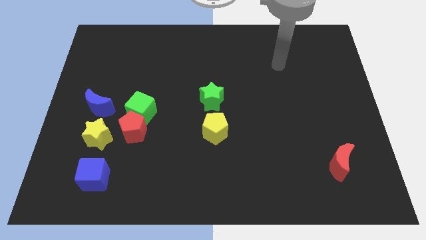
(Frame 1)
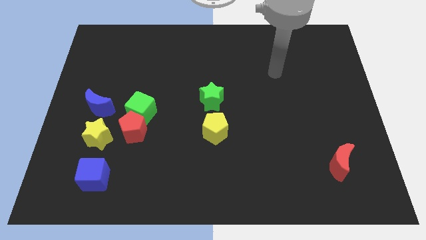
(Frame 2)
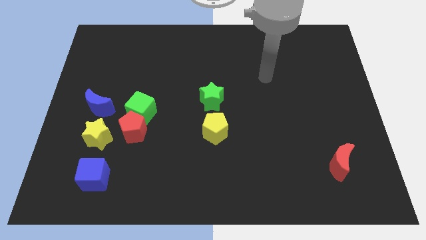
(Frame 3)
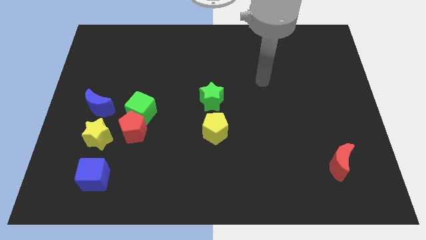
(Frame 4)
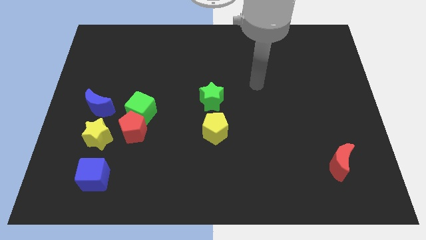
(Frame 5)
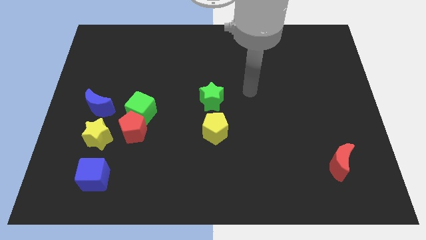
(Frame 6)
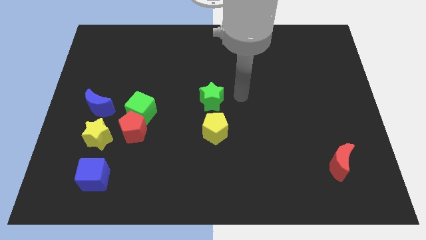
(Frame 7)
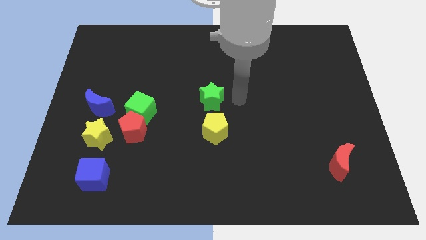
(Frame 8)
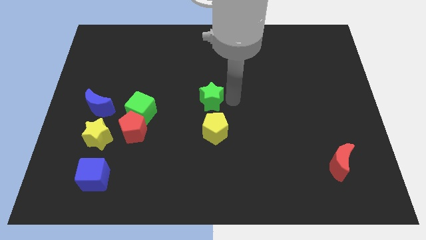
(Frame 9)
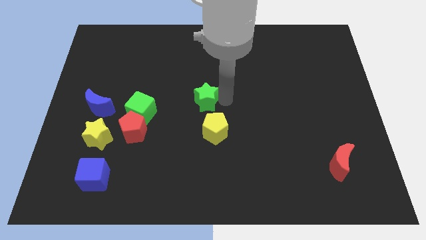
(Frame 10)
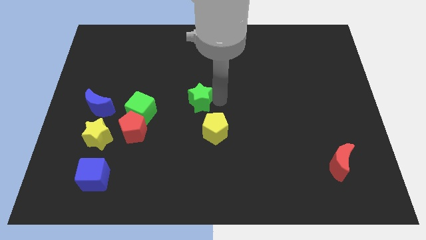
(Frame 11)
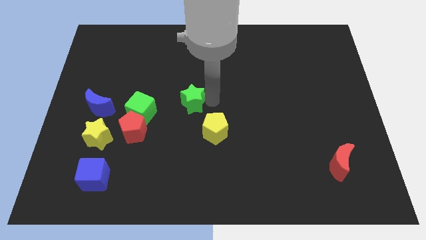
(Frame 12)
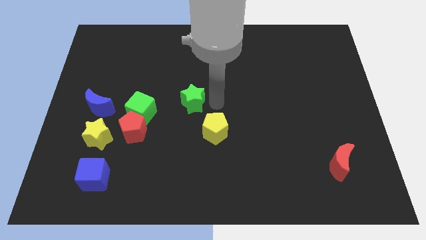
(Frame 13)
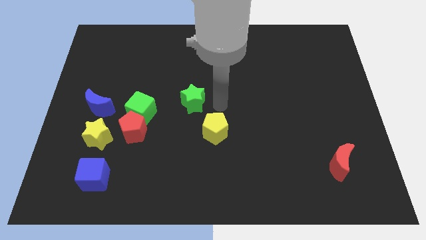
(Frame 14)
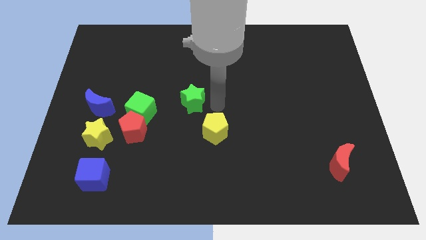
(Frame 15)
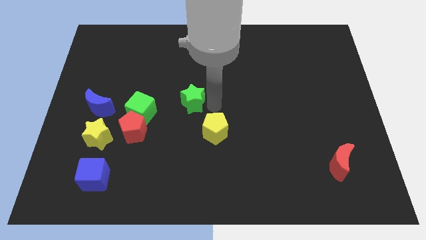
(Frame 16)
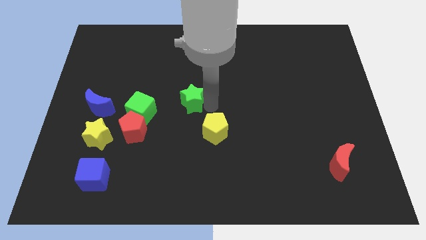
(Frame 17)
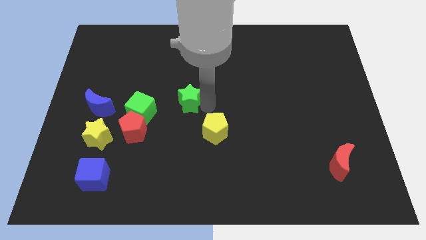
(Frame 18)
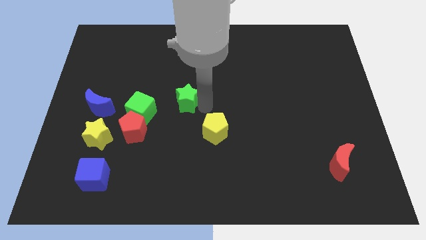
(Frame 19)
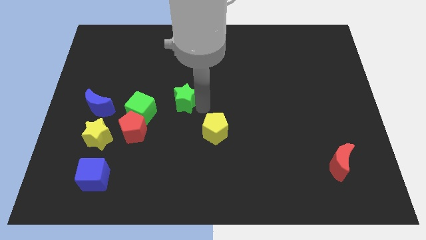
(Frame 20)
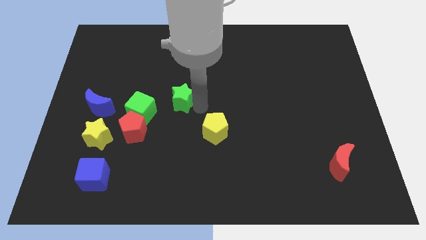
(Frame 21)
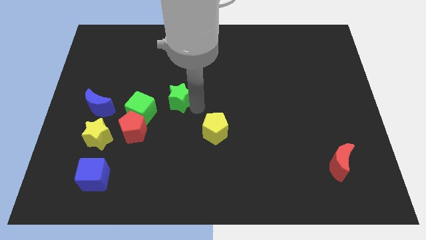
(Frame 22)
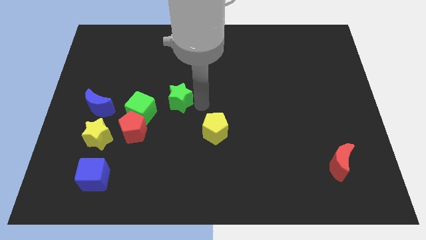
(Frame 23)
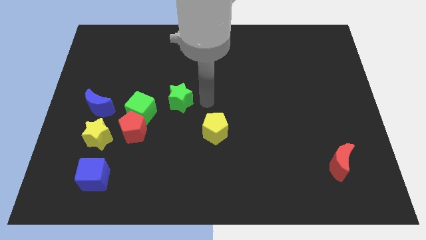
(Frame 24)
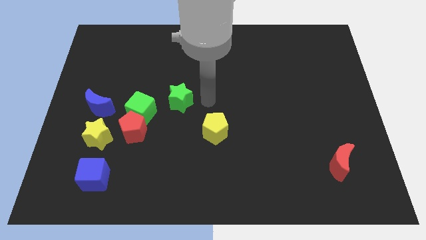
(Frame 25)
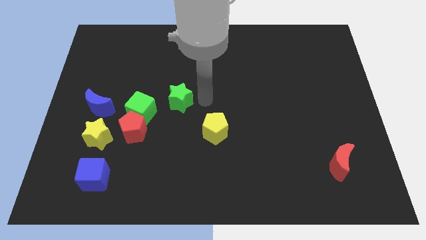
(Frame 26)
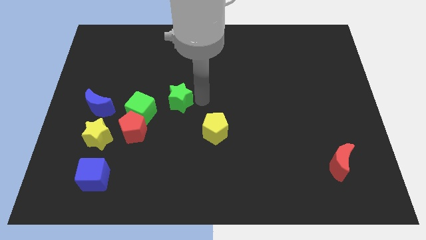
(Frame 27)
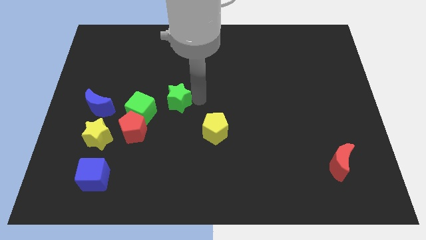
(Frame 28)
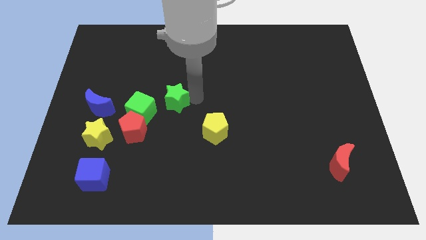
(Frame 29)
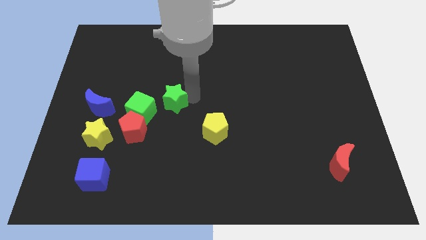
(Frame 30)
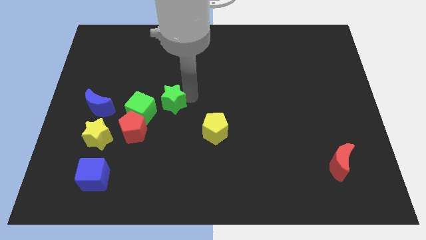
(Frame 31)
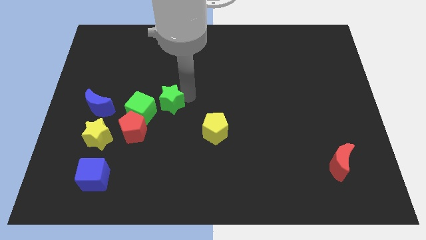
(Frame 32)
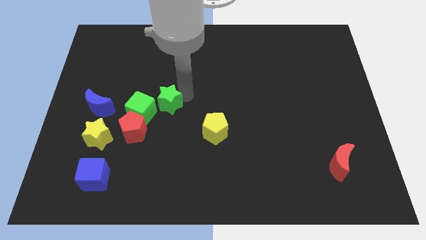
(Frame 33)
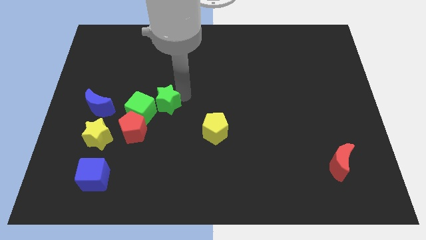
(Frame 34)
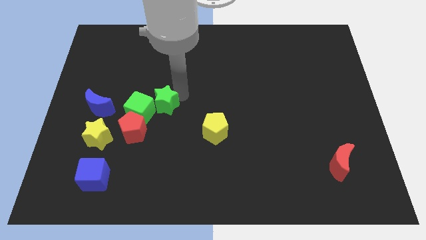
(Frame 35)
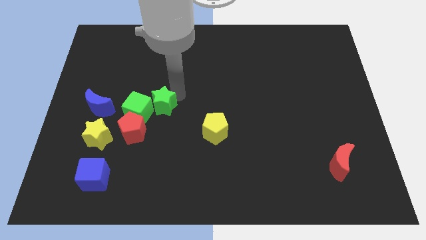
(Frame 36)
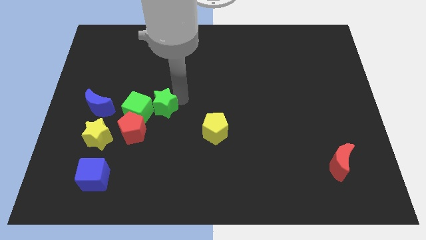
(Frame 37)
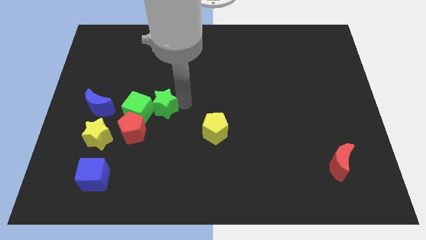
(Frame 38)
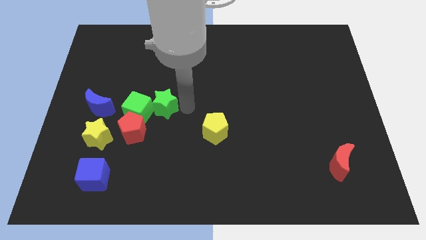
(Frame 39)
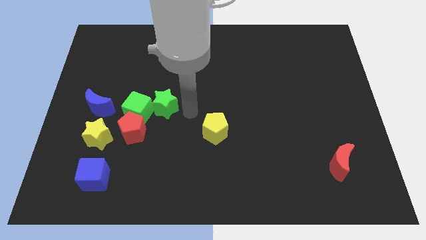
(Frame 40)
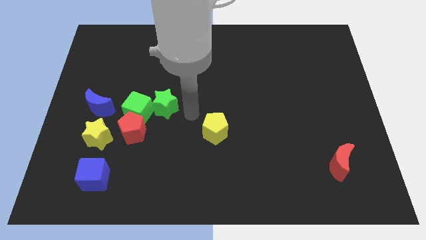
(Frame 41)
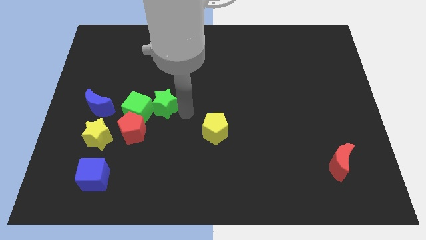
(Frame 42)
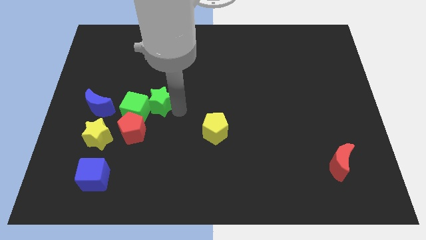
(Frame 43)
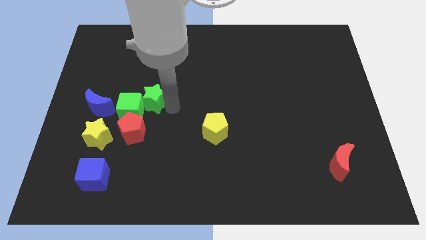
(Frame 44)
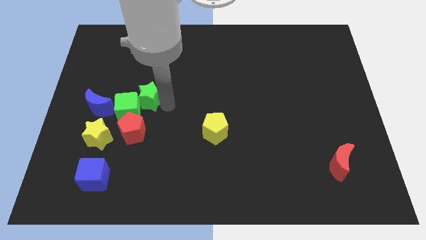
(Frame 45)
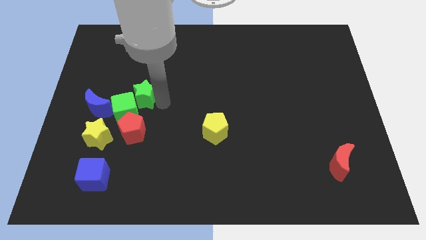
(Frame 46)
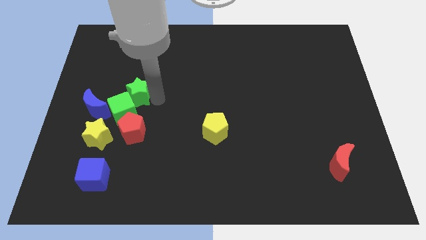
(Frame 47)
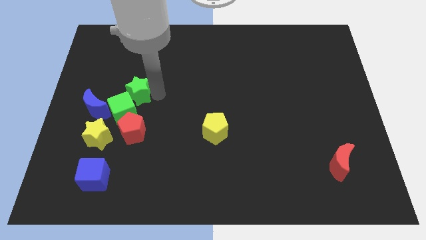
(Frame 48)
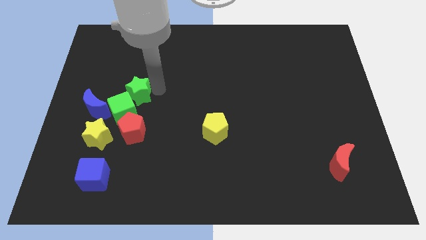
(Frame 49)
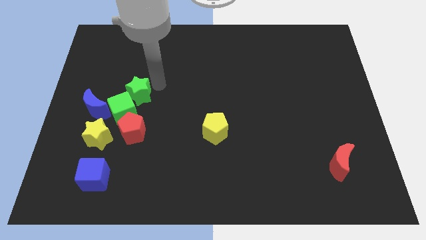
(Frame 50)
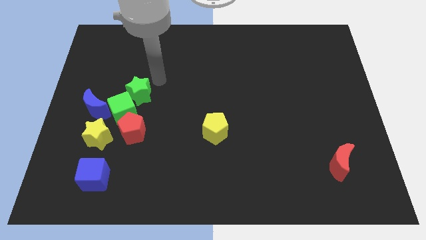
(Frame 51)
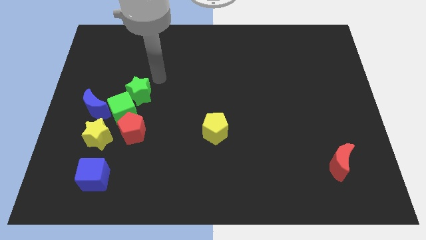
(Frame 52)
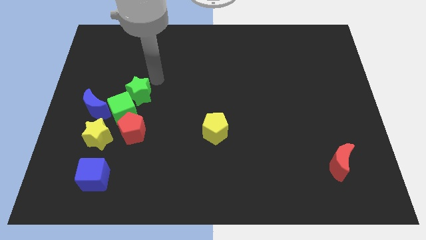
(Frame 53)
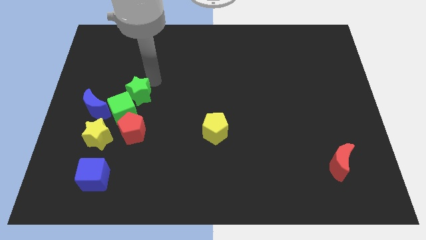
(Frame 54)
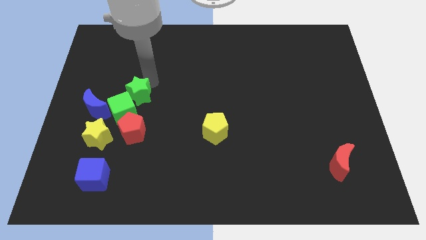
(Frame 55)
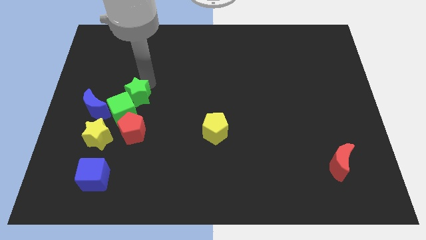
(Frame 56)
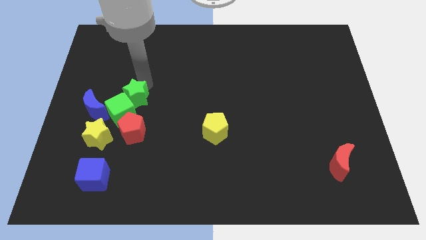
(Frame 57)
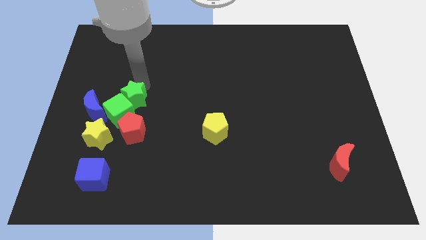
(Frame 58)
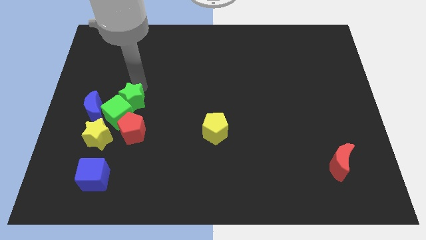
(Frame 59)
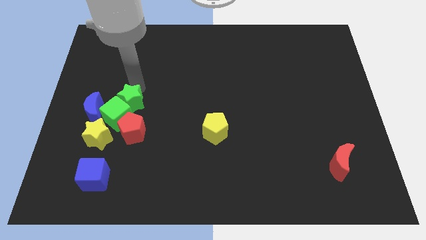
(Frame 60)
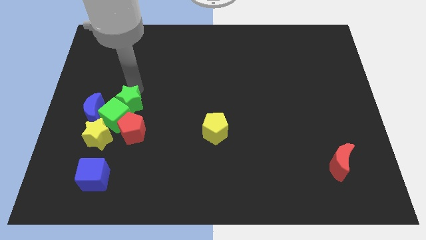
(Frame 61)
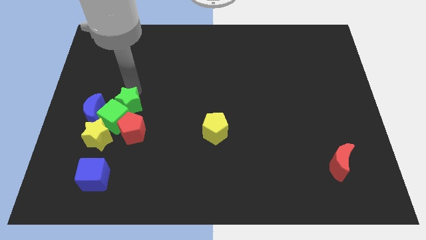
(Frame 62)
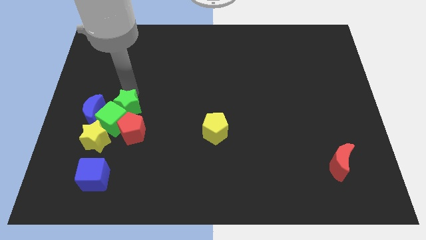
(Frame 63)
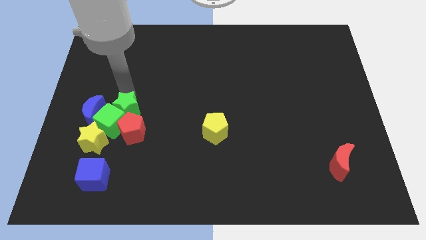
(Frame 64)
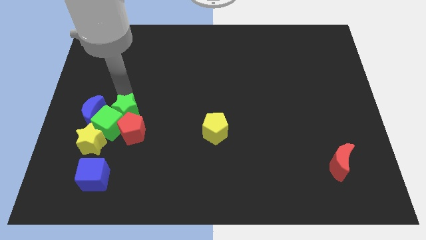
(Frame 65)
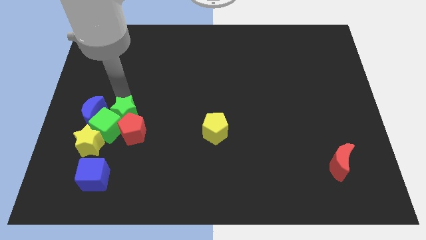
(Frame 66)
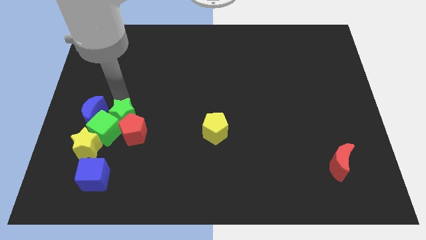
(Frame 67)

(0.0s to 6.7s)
move the green star to the bottom right of the blue moon
